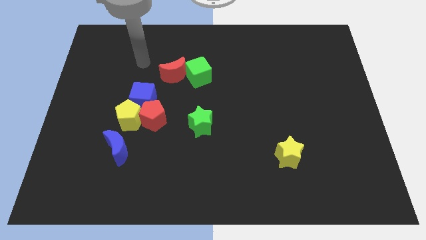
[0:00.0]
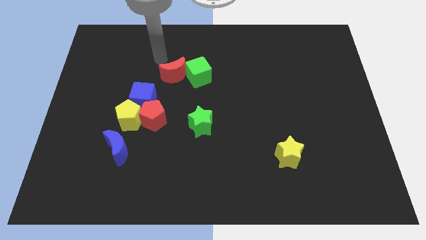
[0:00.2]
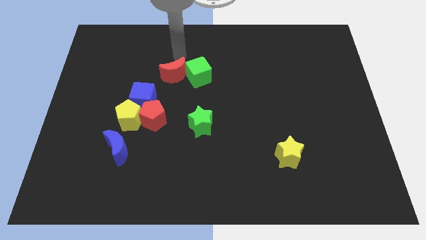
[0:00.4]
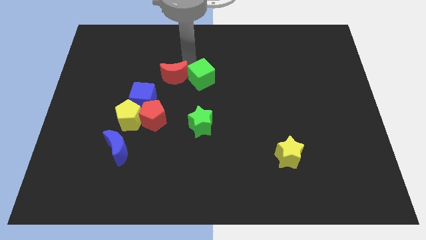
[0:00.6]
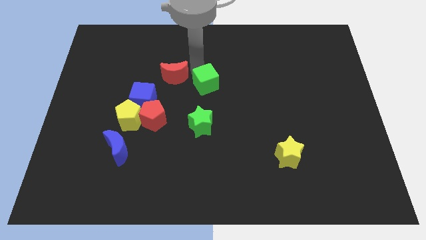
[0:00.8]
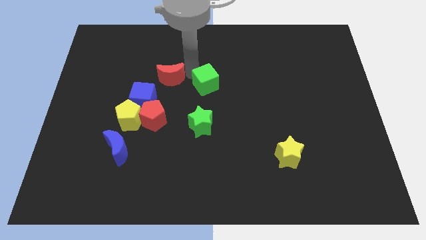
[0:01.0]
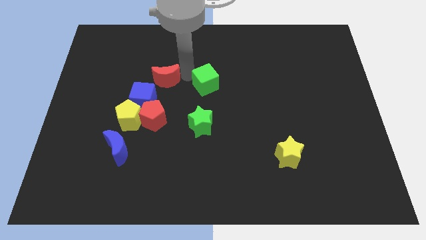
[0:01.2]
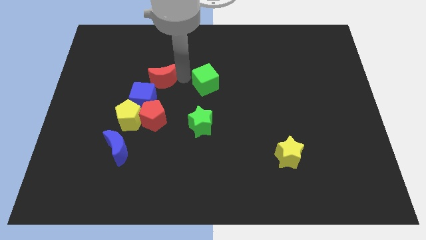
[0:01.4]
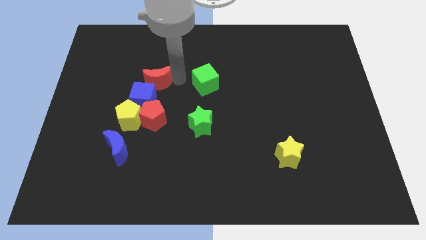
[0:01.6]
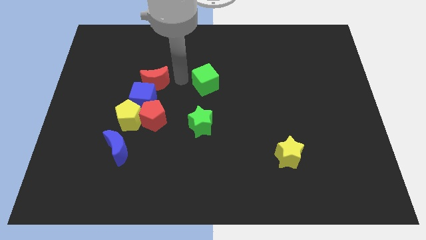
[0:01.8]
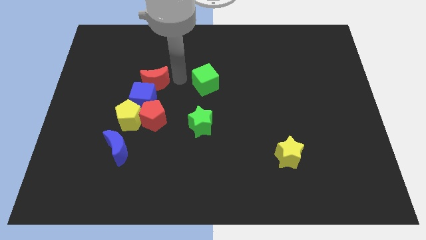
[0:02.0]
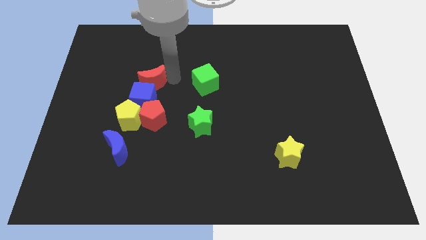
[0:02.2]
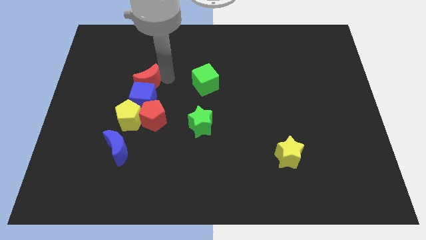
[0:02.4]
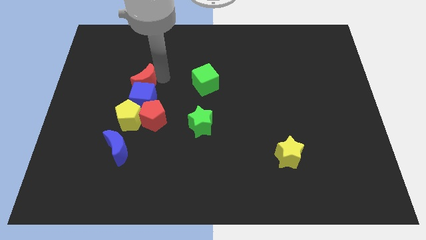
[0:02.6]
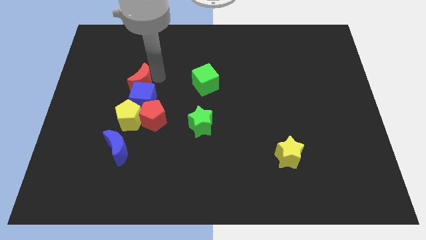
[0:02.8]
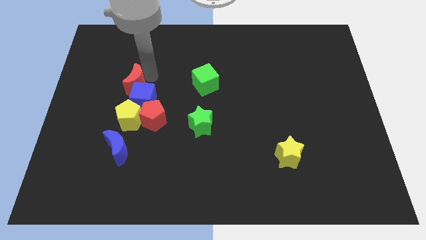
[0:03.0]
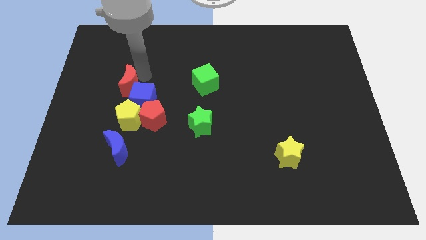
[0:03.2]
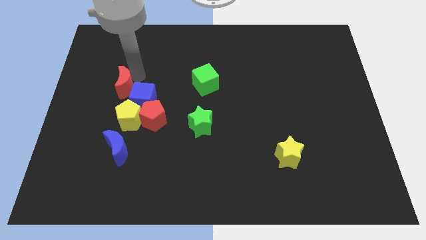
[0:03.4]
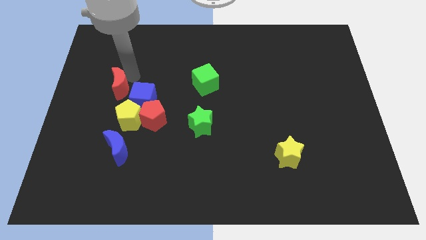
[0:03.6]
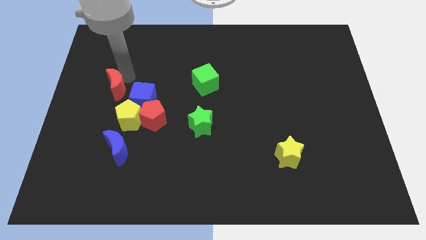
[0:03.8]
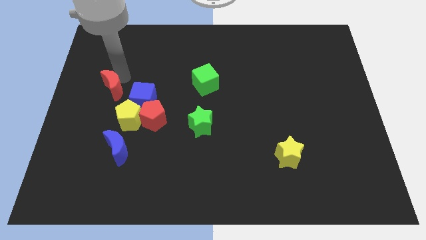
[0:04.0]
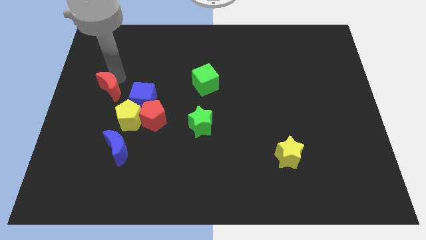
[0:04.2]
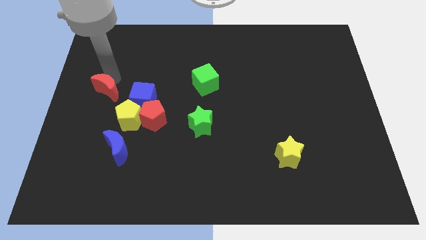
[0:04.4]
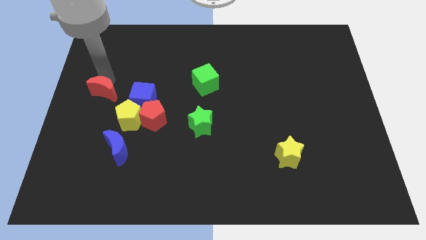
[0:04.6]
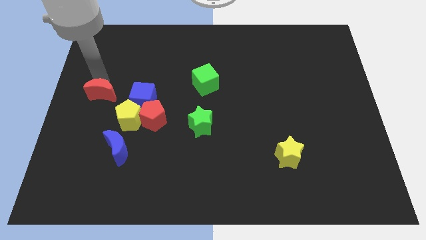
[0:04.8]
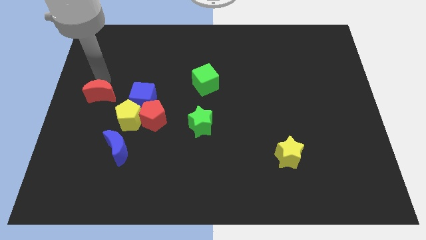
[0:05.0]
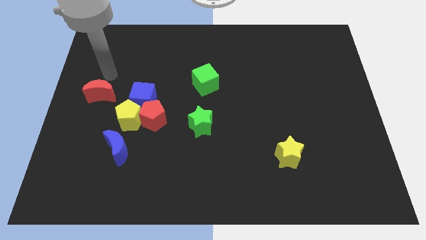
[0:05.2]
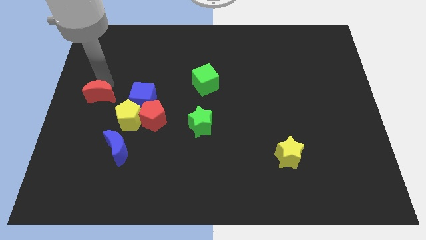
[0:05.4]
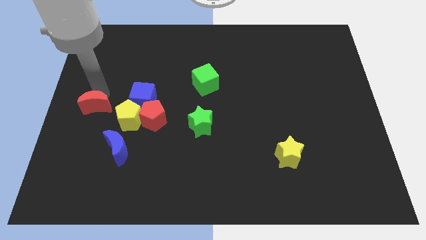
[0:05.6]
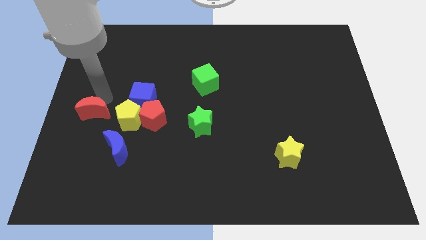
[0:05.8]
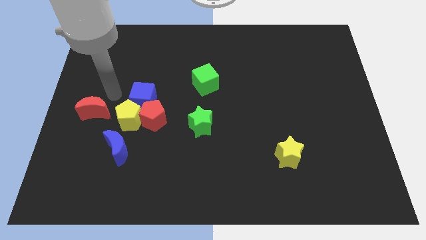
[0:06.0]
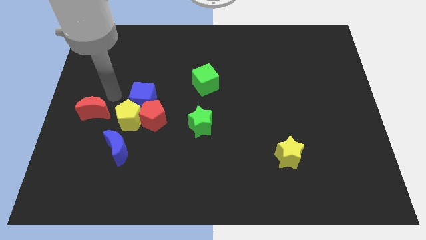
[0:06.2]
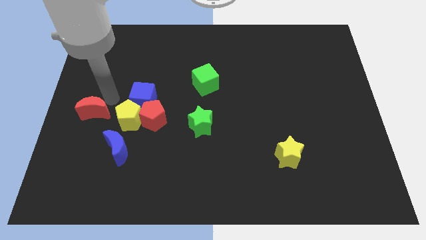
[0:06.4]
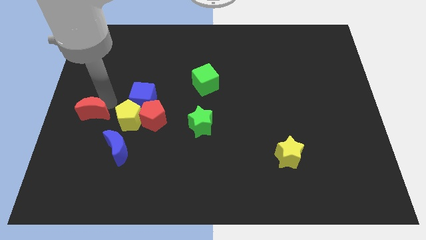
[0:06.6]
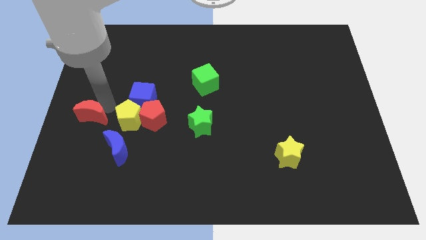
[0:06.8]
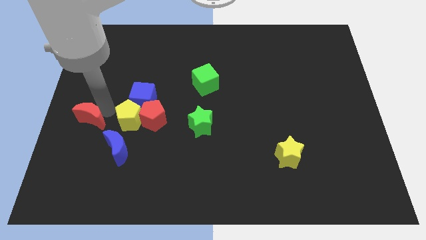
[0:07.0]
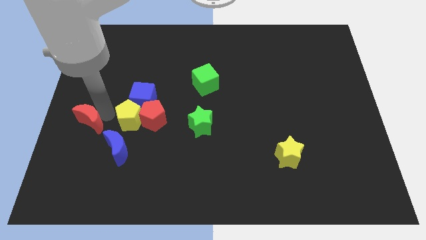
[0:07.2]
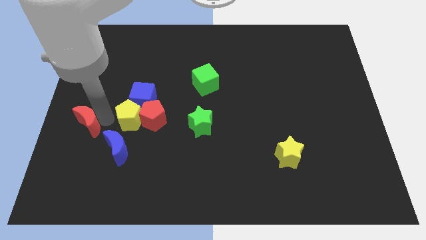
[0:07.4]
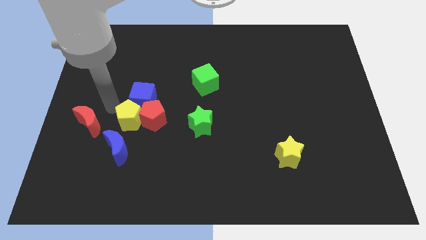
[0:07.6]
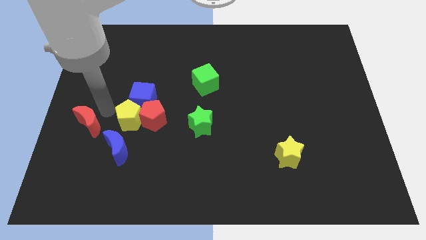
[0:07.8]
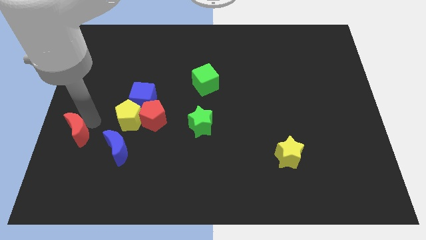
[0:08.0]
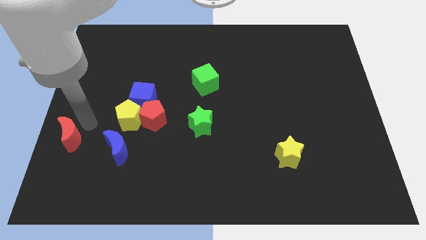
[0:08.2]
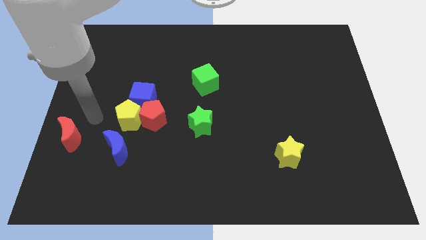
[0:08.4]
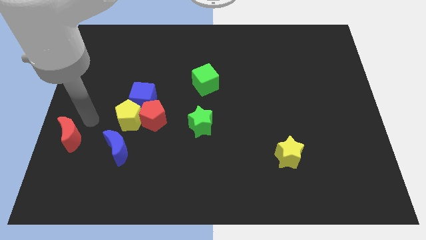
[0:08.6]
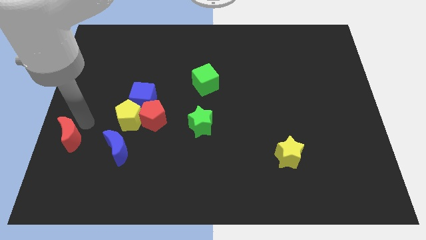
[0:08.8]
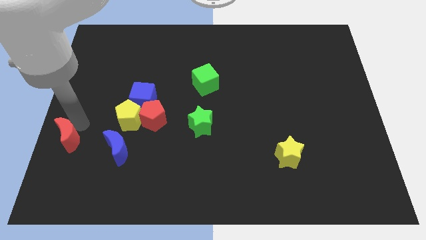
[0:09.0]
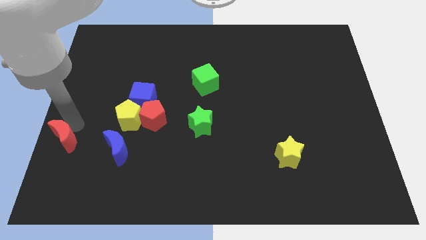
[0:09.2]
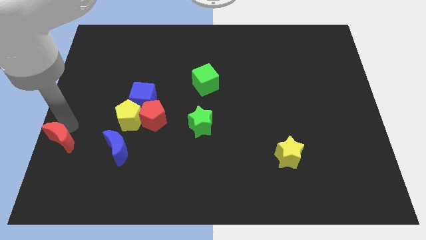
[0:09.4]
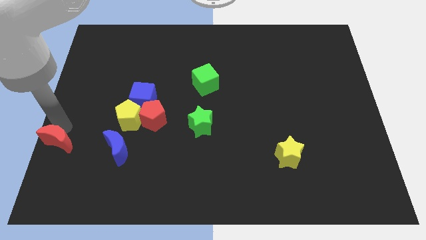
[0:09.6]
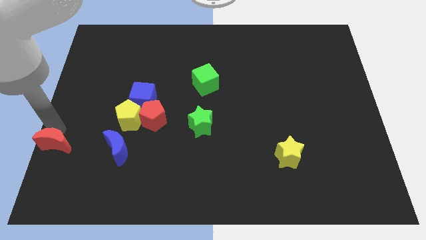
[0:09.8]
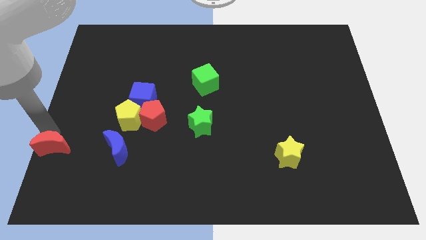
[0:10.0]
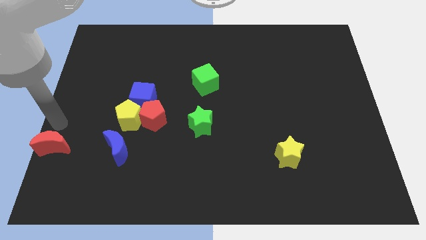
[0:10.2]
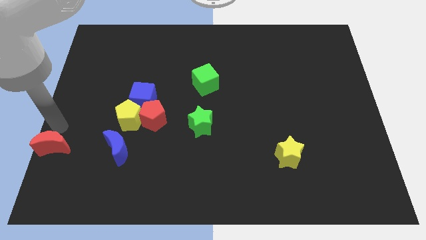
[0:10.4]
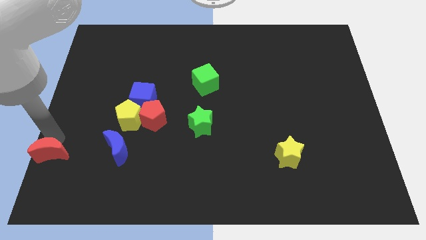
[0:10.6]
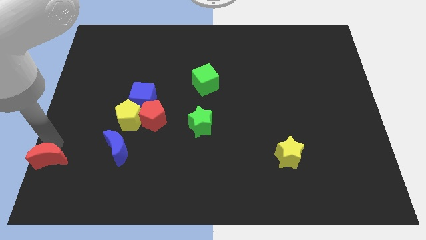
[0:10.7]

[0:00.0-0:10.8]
put the red moon to the bottom left of the board

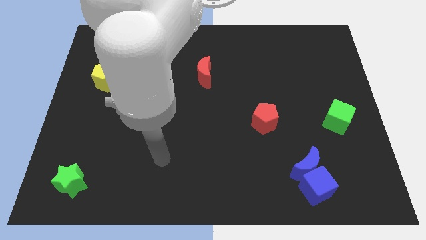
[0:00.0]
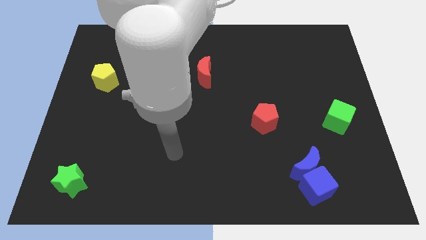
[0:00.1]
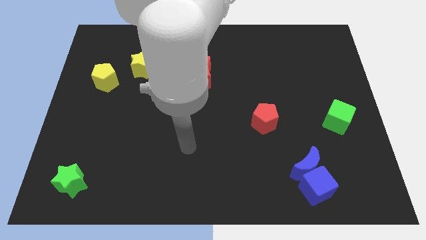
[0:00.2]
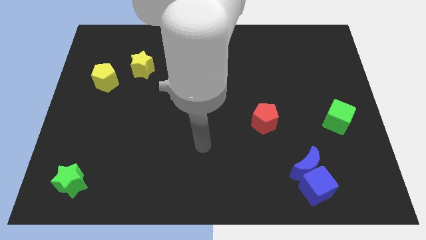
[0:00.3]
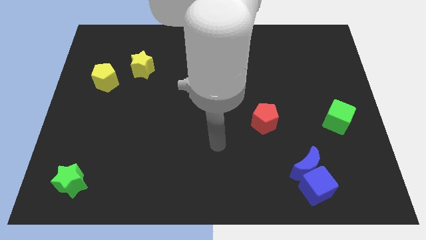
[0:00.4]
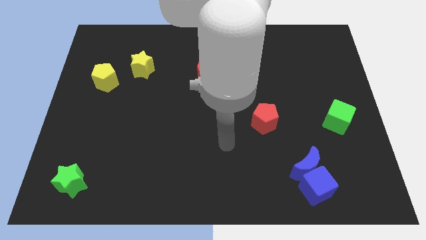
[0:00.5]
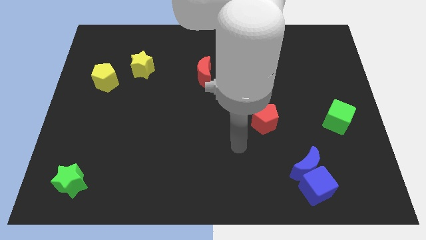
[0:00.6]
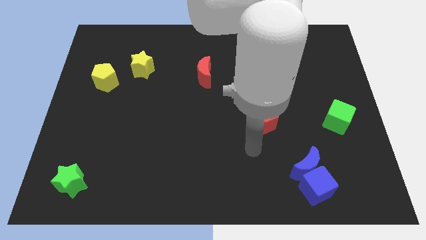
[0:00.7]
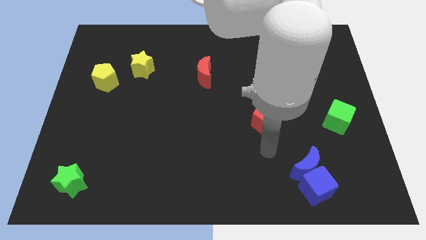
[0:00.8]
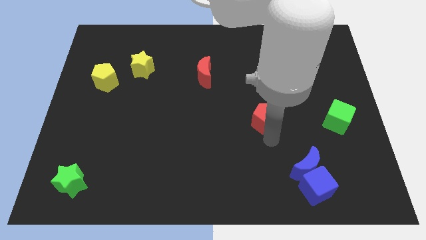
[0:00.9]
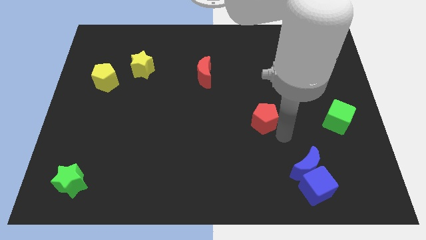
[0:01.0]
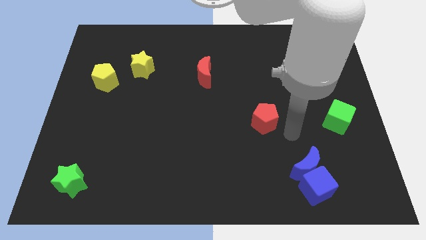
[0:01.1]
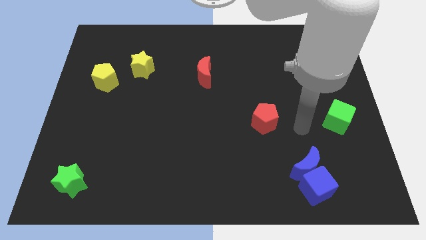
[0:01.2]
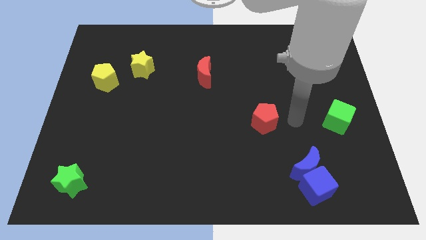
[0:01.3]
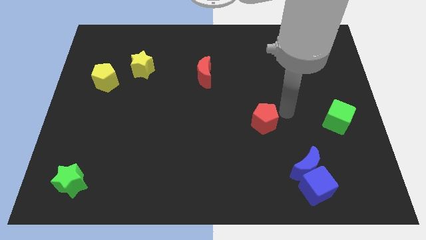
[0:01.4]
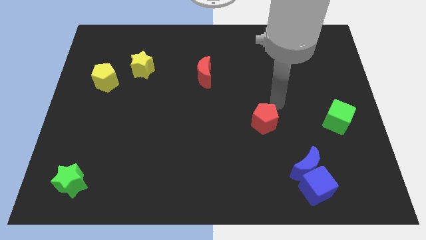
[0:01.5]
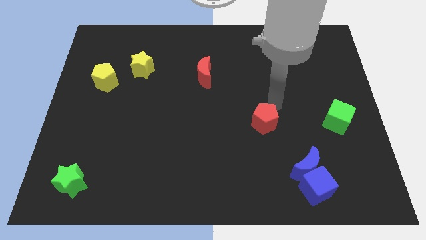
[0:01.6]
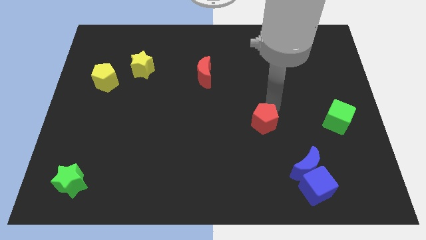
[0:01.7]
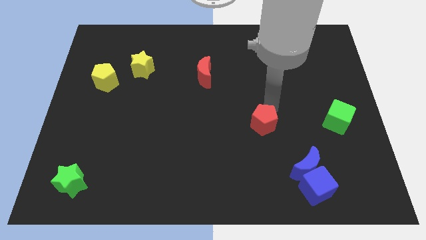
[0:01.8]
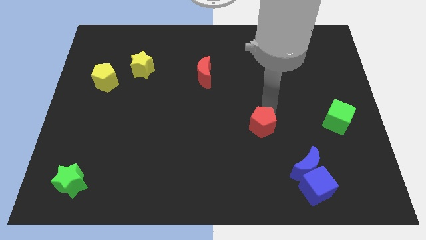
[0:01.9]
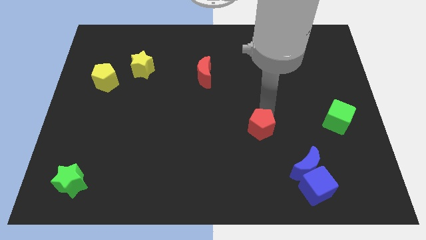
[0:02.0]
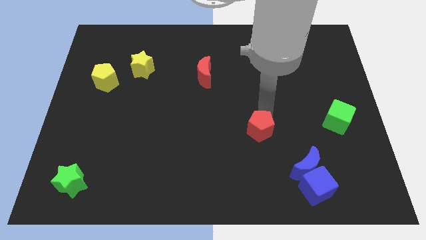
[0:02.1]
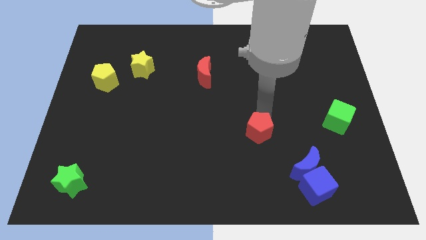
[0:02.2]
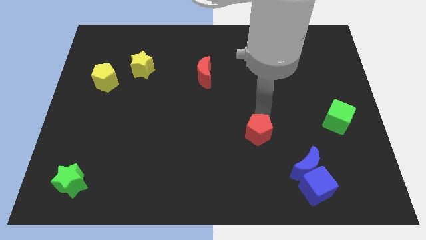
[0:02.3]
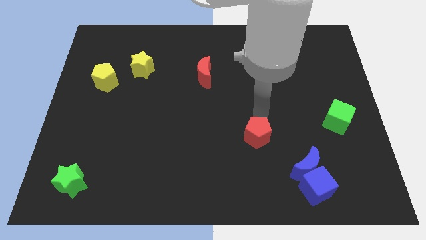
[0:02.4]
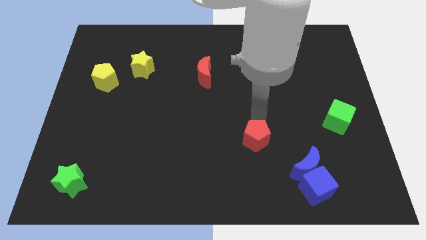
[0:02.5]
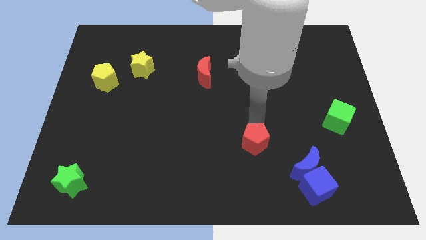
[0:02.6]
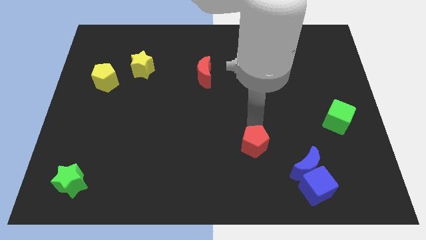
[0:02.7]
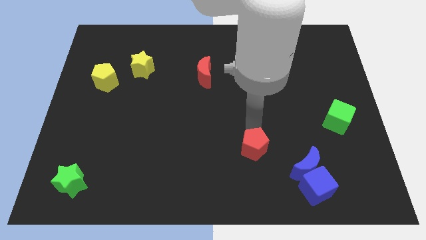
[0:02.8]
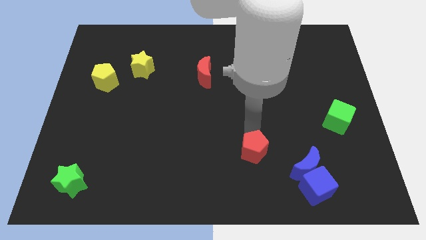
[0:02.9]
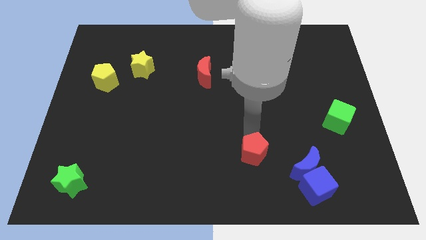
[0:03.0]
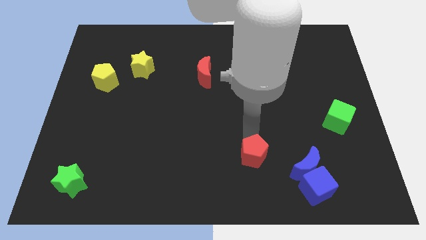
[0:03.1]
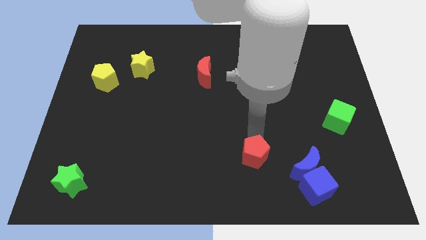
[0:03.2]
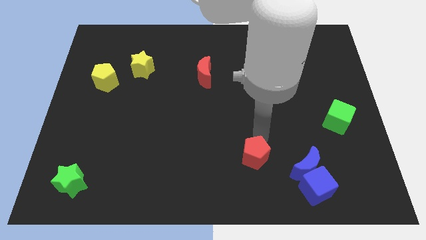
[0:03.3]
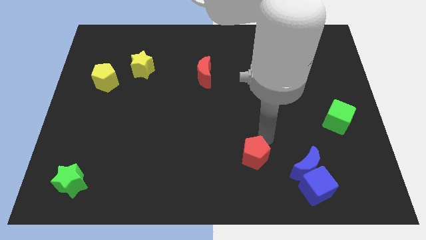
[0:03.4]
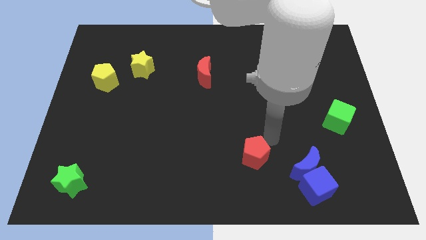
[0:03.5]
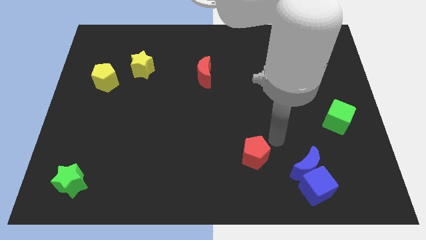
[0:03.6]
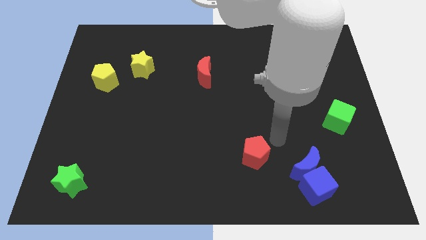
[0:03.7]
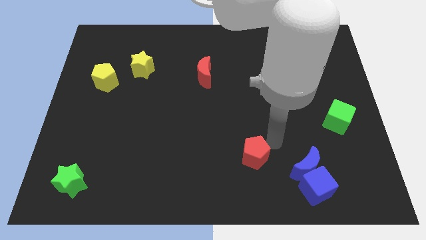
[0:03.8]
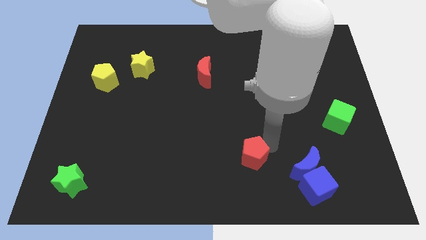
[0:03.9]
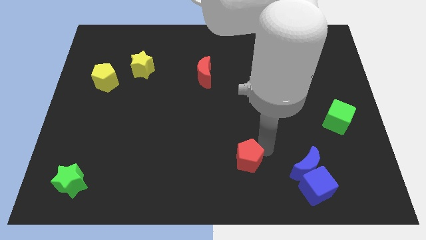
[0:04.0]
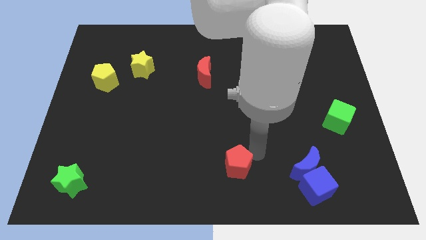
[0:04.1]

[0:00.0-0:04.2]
slide the red pentagon to the bottom
